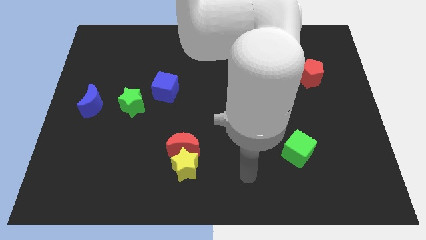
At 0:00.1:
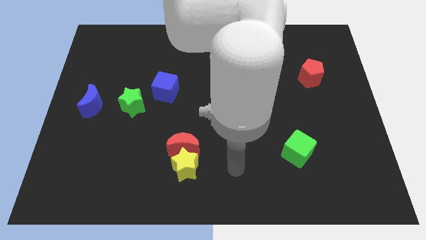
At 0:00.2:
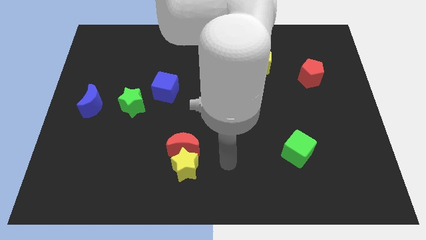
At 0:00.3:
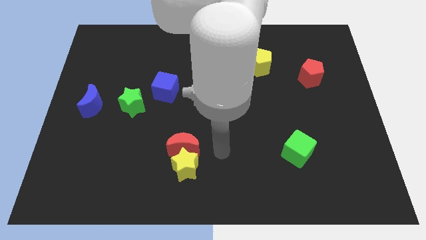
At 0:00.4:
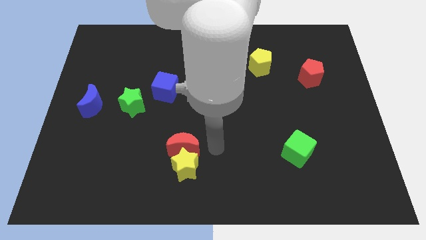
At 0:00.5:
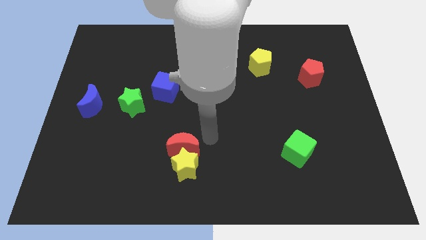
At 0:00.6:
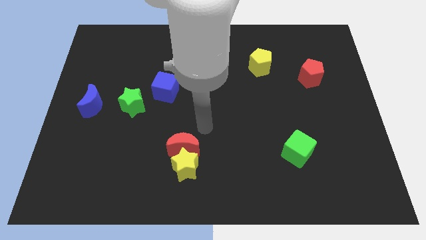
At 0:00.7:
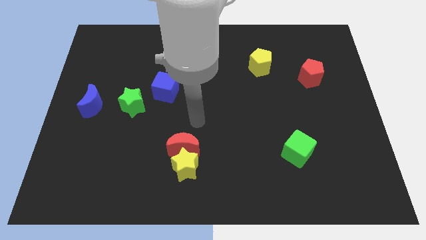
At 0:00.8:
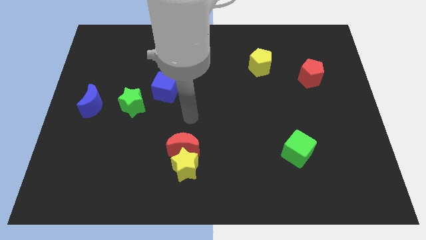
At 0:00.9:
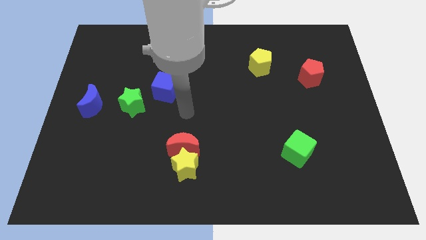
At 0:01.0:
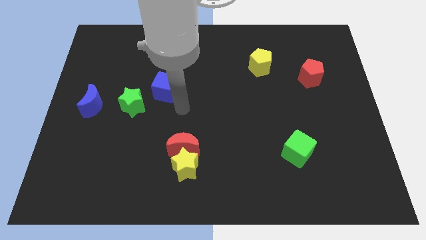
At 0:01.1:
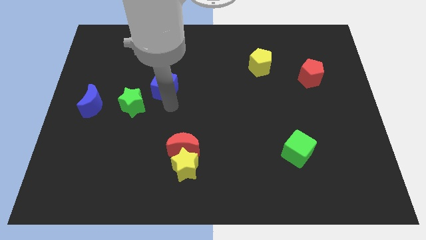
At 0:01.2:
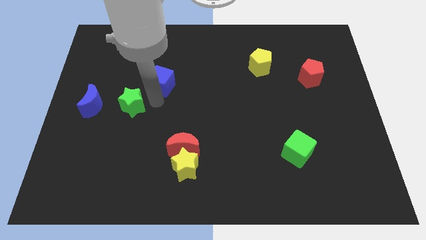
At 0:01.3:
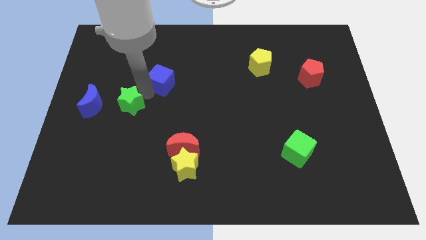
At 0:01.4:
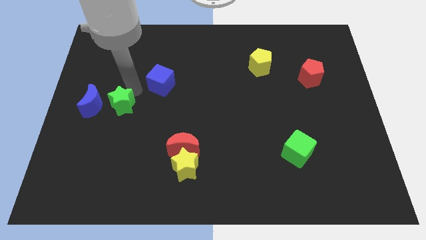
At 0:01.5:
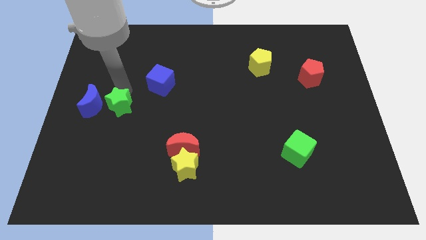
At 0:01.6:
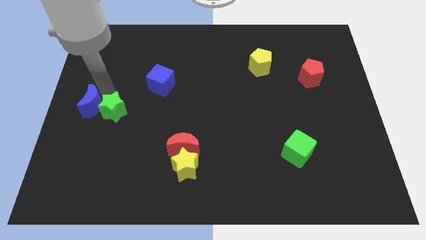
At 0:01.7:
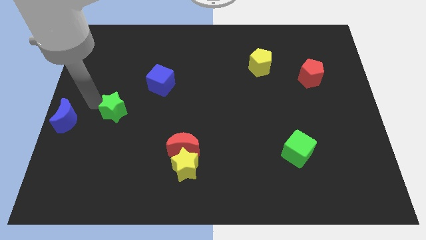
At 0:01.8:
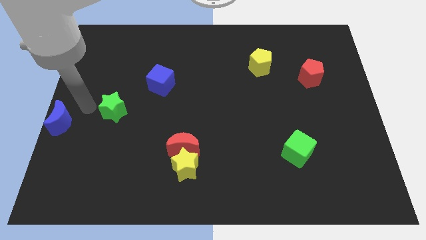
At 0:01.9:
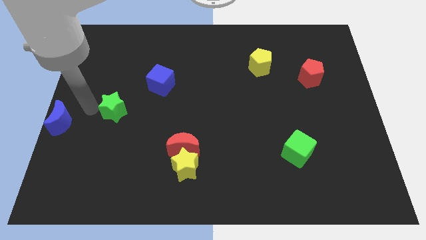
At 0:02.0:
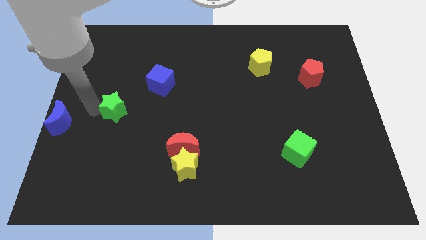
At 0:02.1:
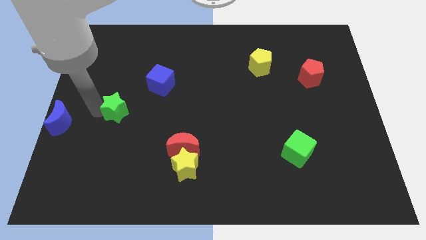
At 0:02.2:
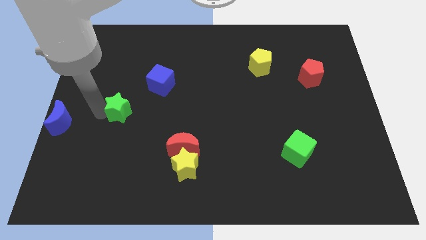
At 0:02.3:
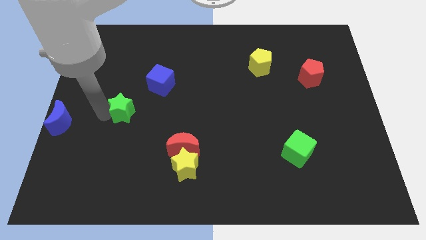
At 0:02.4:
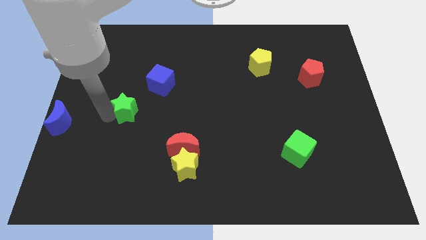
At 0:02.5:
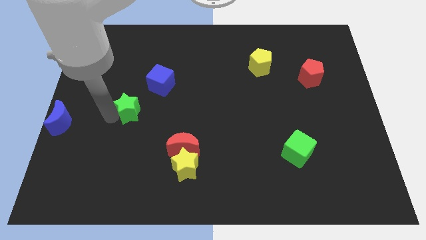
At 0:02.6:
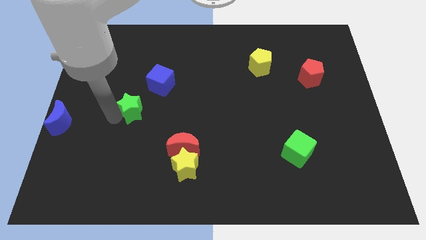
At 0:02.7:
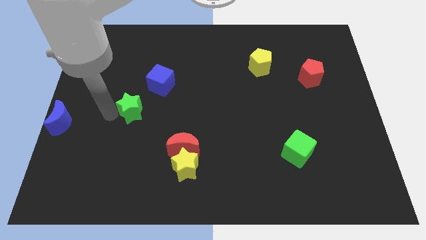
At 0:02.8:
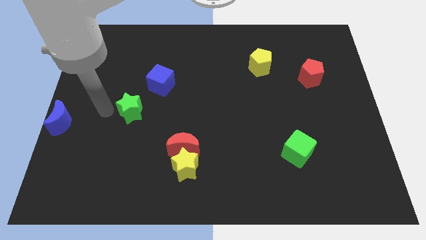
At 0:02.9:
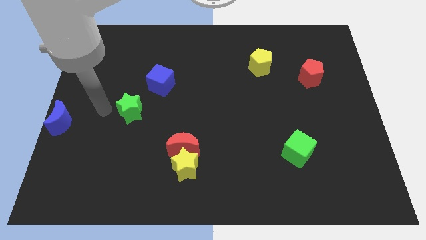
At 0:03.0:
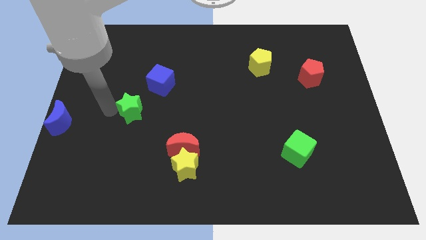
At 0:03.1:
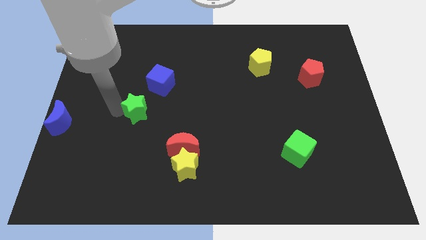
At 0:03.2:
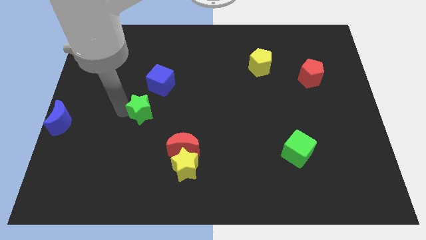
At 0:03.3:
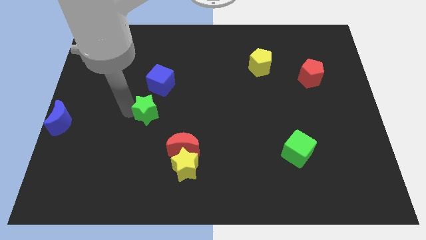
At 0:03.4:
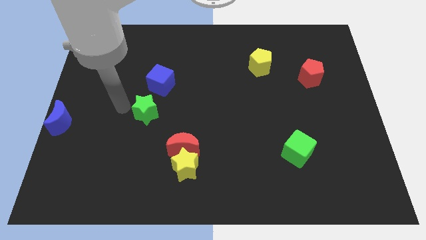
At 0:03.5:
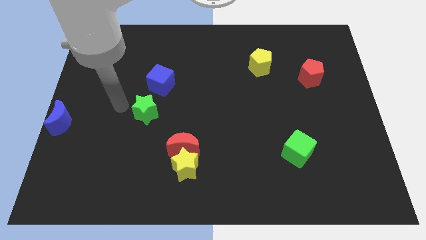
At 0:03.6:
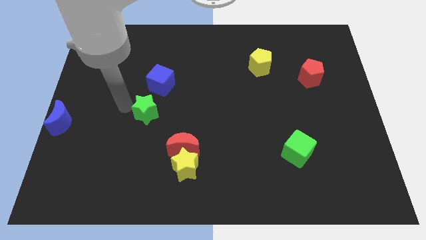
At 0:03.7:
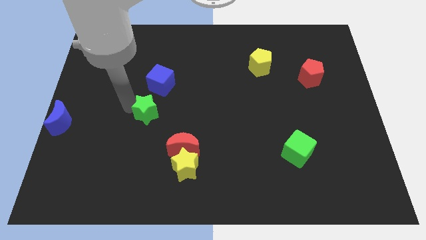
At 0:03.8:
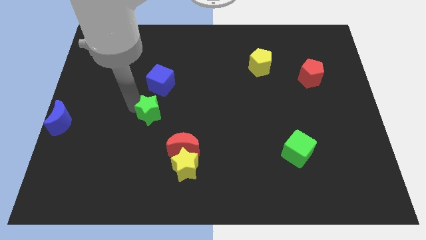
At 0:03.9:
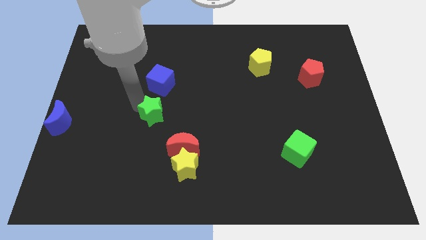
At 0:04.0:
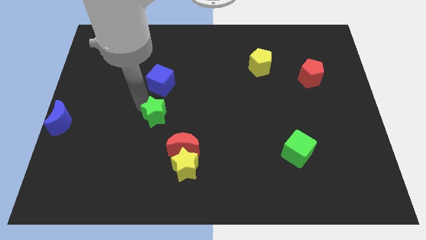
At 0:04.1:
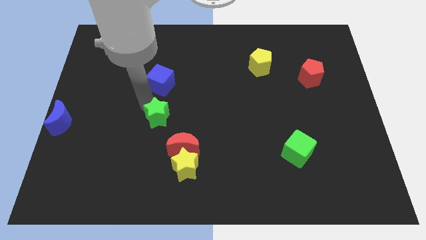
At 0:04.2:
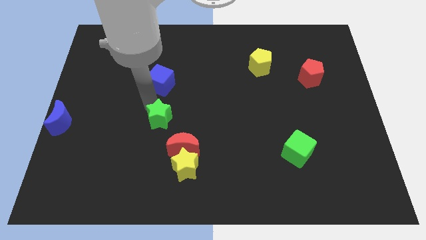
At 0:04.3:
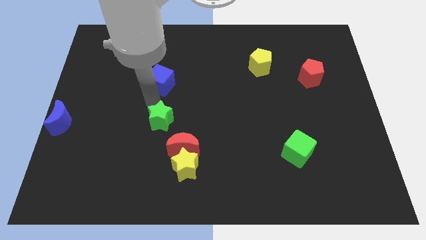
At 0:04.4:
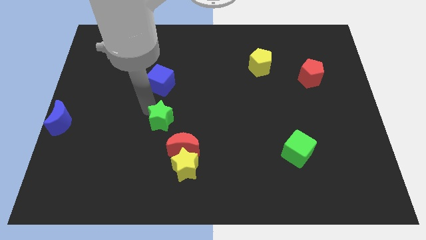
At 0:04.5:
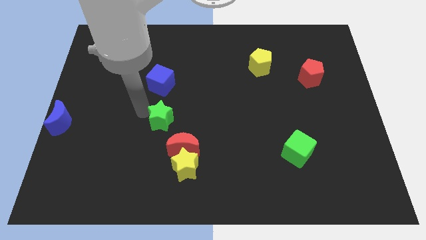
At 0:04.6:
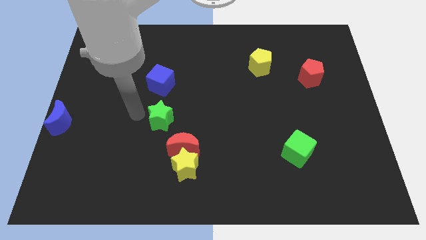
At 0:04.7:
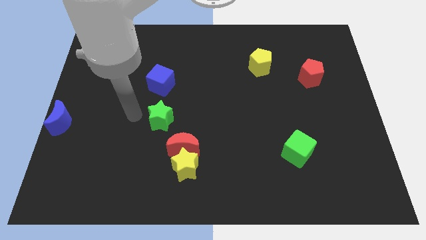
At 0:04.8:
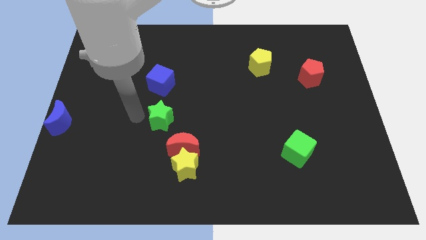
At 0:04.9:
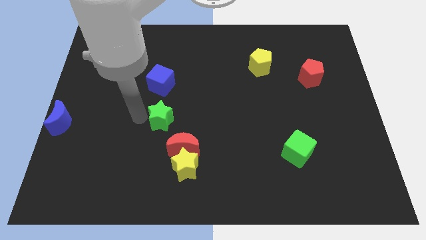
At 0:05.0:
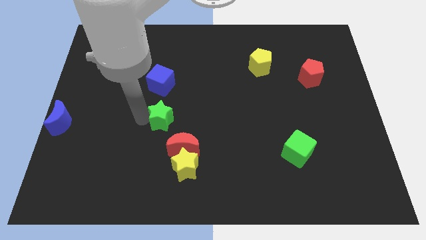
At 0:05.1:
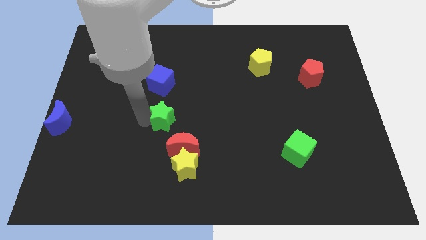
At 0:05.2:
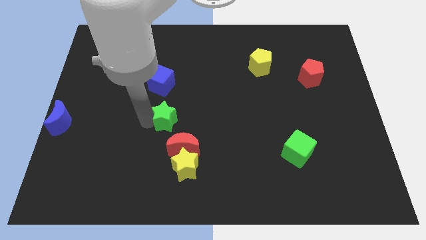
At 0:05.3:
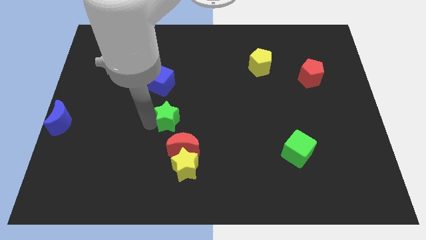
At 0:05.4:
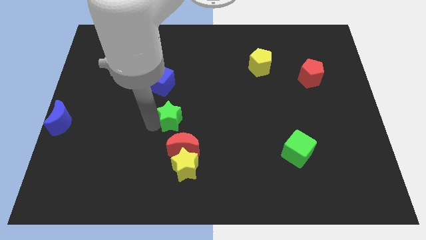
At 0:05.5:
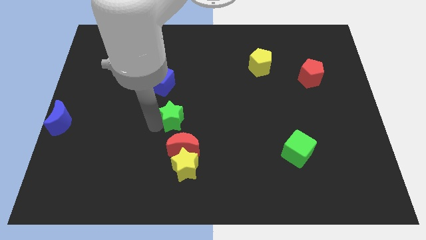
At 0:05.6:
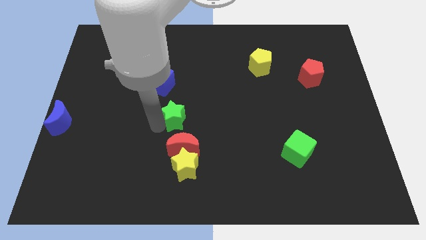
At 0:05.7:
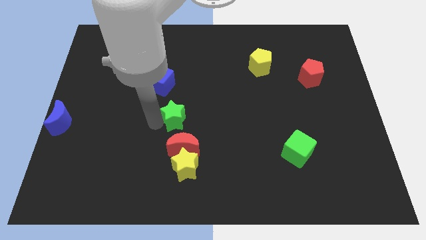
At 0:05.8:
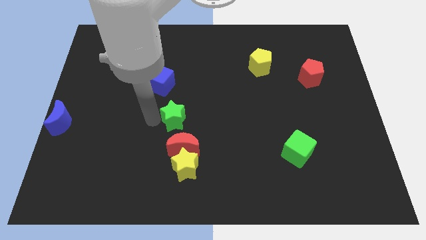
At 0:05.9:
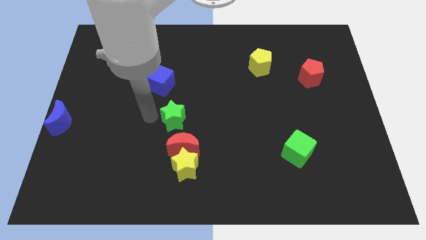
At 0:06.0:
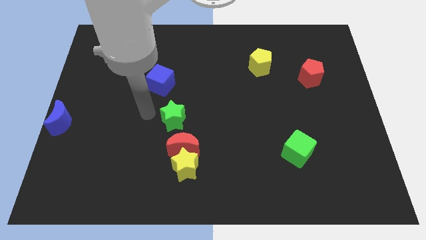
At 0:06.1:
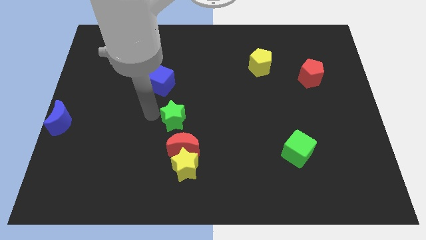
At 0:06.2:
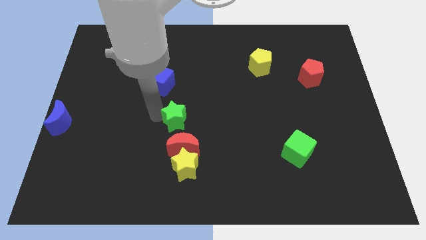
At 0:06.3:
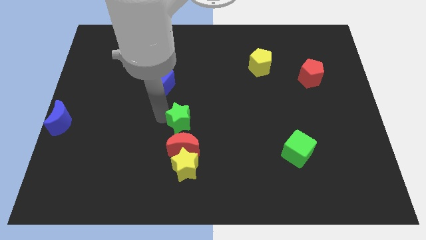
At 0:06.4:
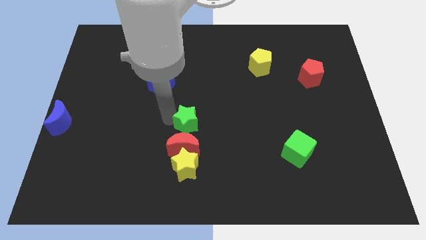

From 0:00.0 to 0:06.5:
slide the green star to the top right of the red moon

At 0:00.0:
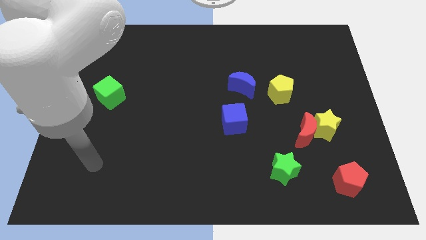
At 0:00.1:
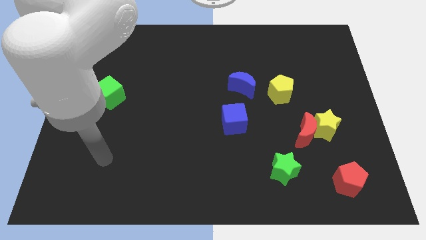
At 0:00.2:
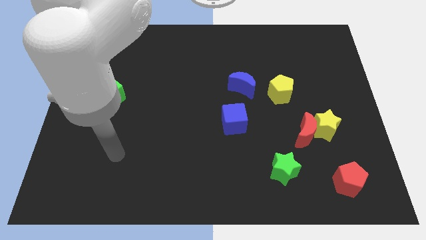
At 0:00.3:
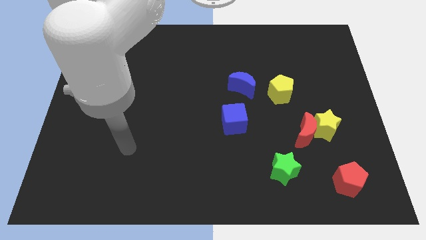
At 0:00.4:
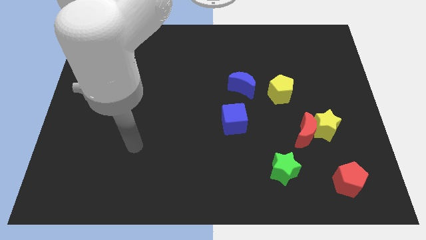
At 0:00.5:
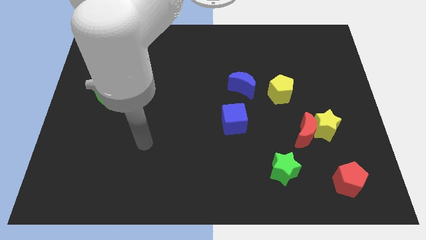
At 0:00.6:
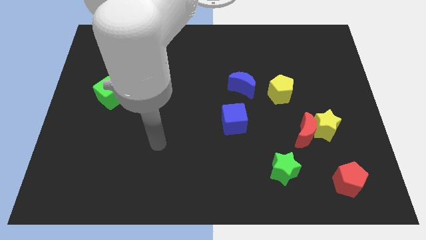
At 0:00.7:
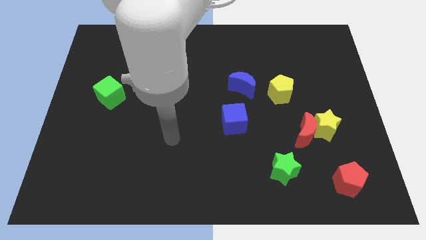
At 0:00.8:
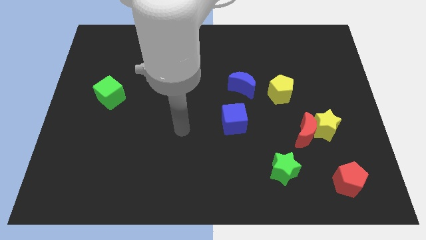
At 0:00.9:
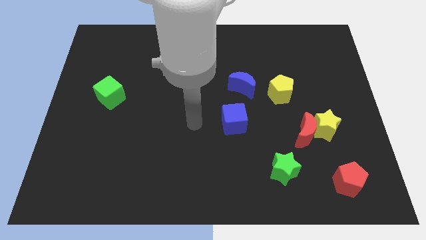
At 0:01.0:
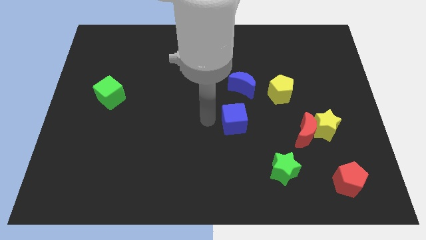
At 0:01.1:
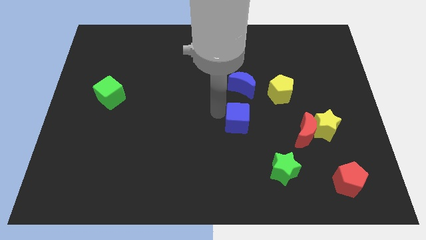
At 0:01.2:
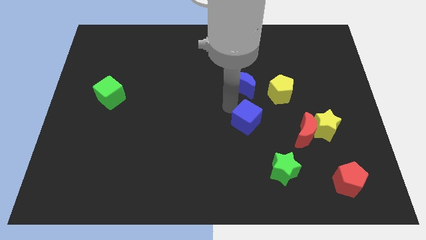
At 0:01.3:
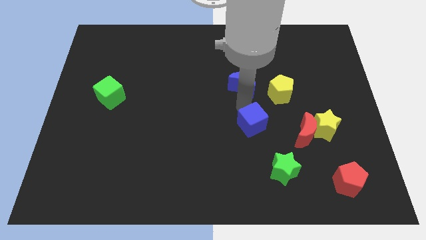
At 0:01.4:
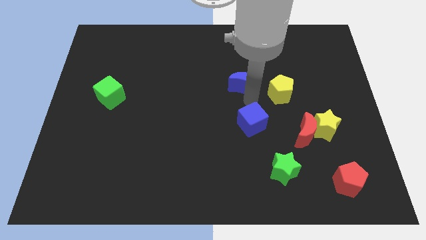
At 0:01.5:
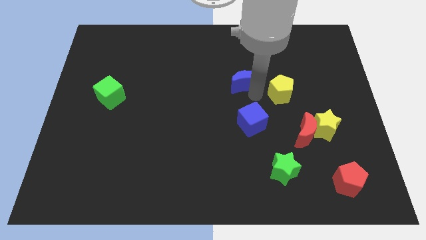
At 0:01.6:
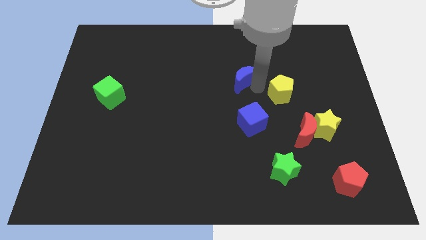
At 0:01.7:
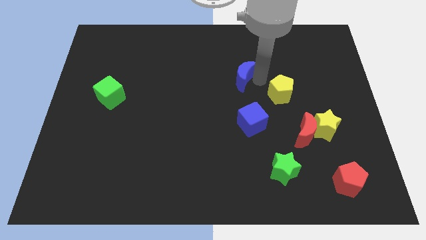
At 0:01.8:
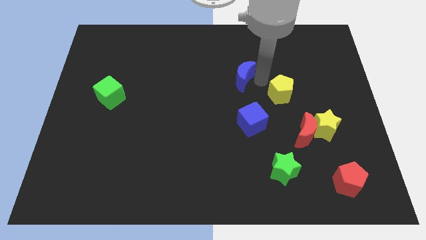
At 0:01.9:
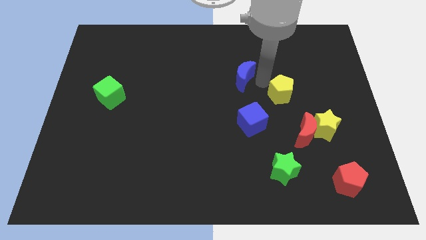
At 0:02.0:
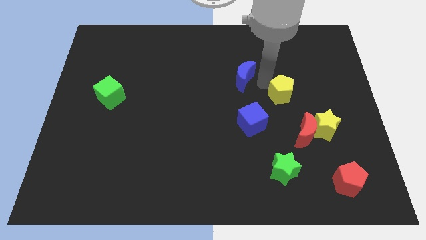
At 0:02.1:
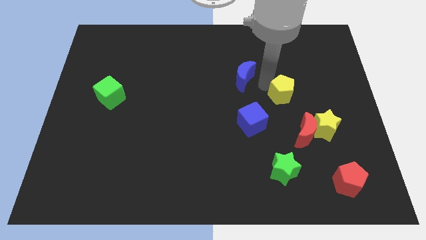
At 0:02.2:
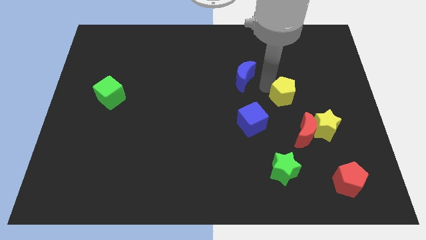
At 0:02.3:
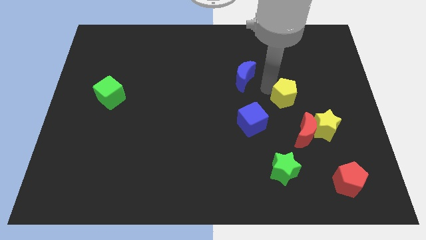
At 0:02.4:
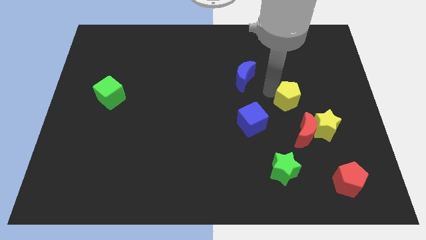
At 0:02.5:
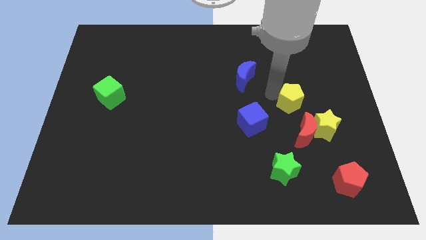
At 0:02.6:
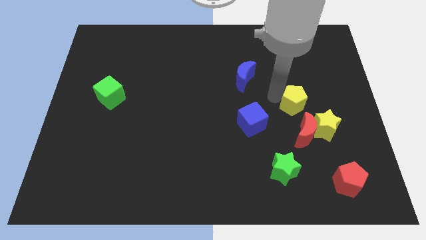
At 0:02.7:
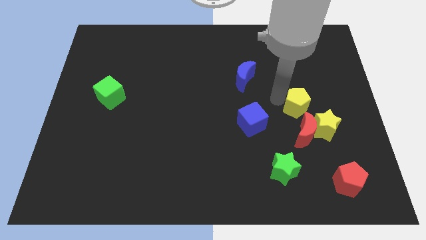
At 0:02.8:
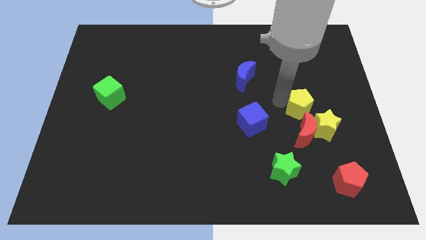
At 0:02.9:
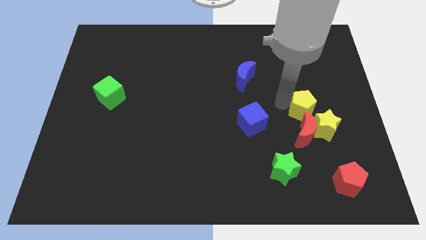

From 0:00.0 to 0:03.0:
push the yellow pentagon diagonally up and to the right of the red moon
